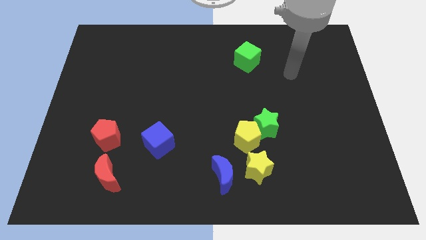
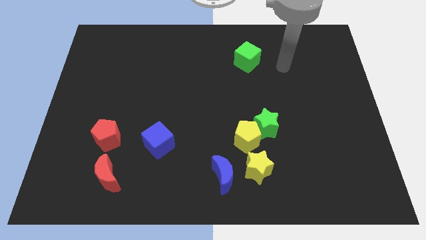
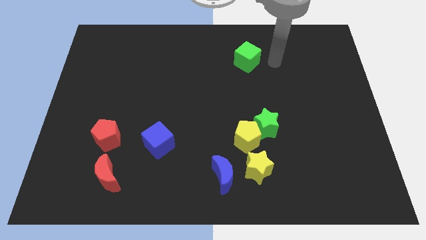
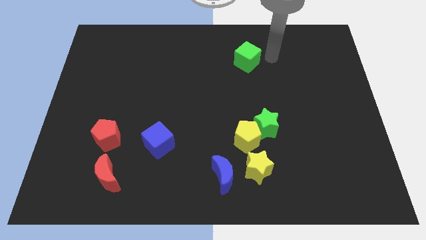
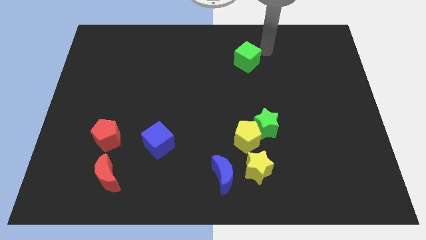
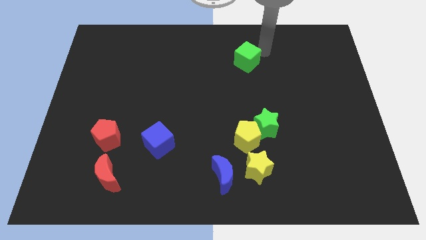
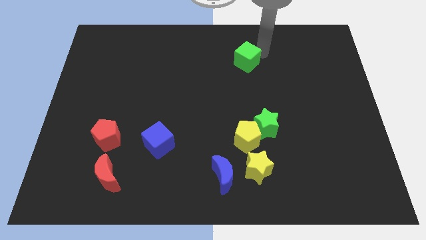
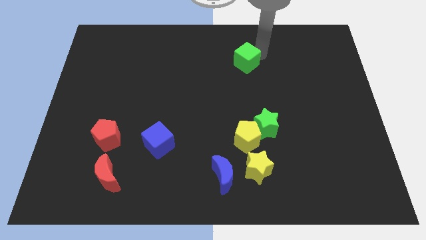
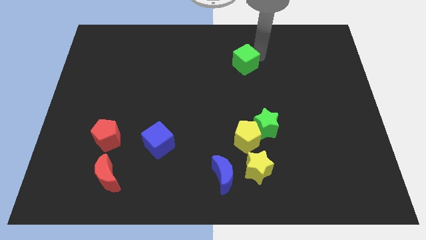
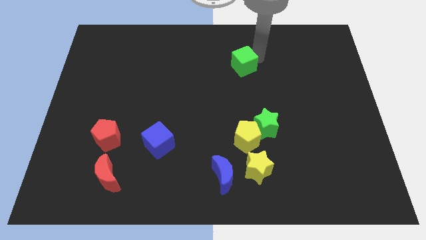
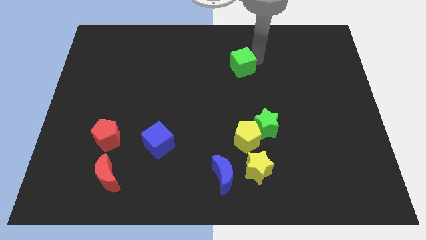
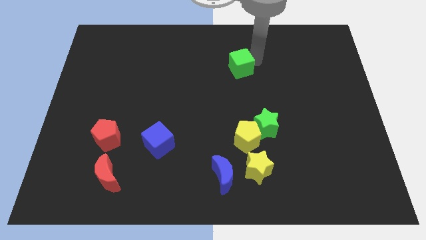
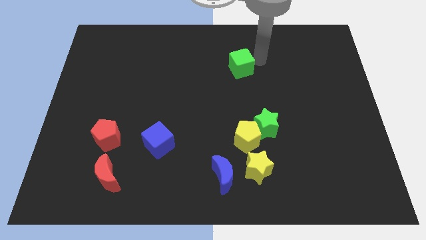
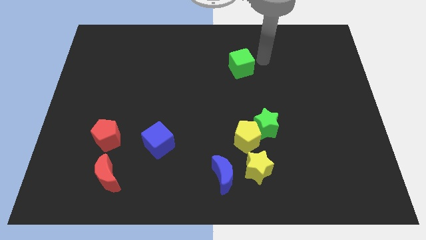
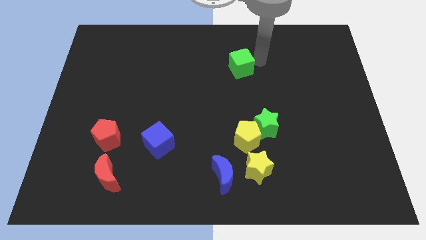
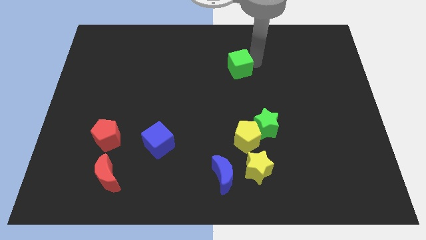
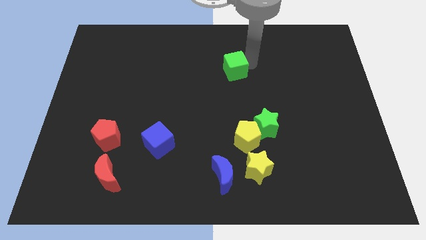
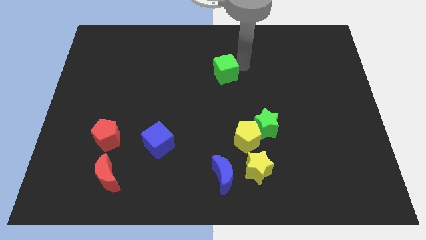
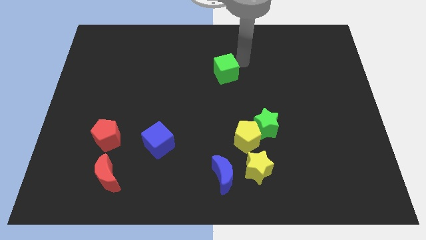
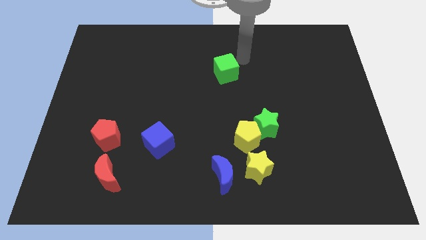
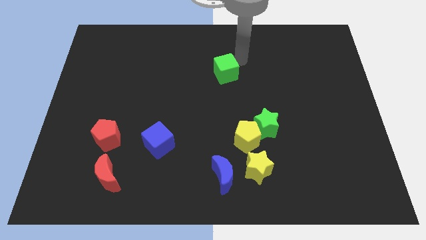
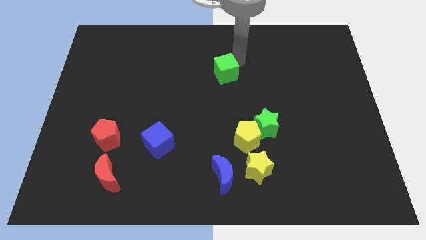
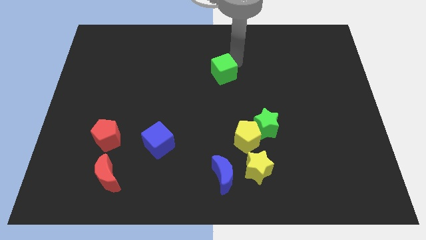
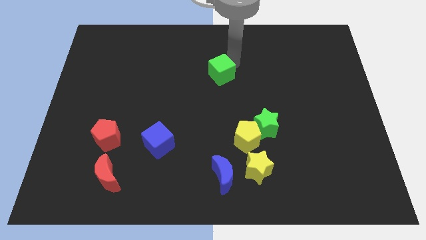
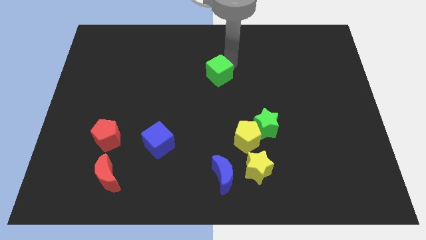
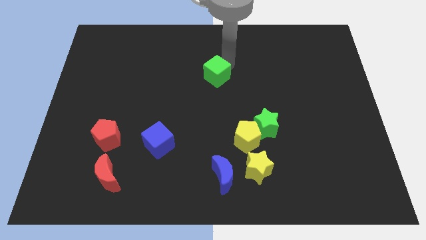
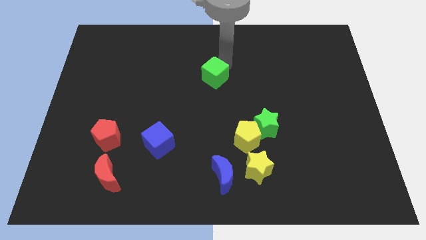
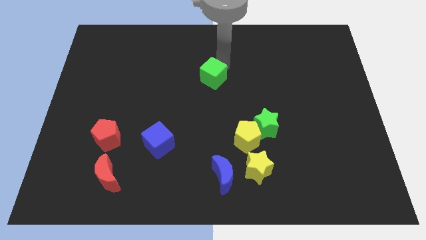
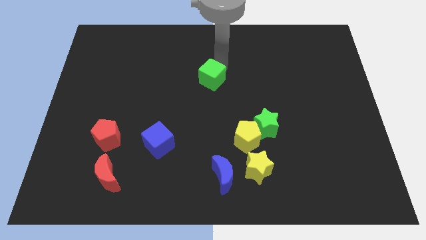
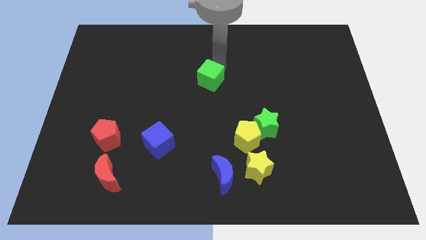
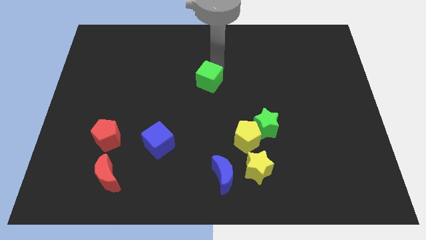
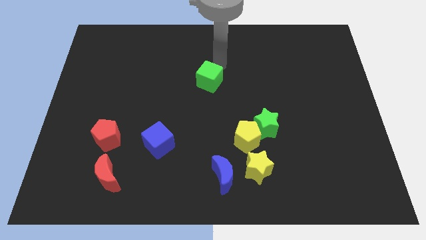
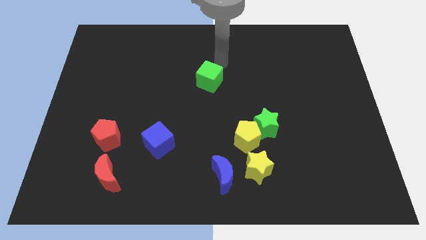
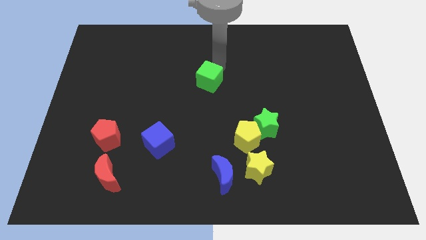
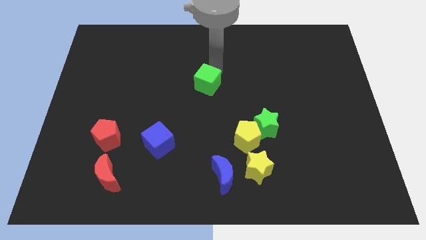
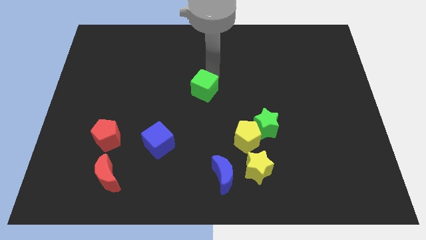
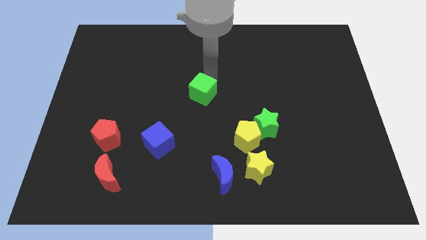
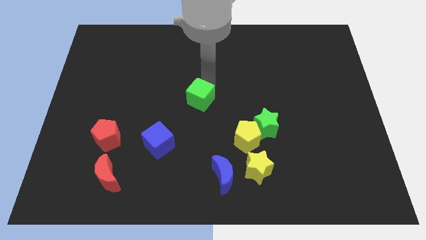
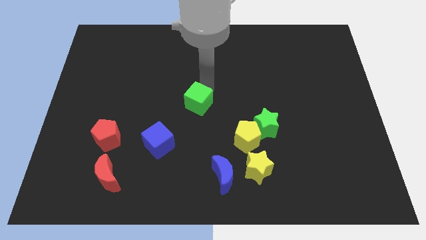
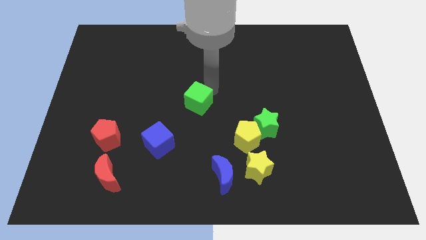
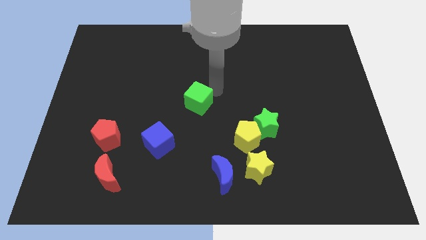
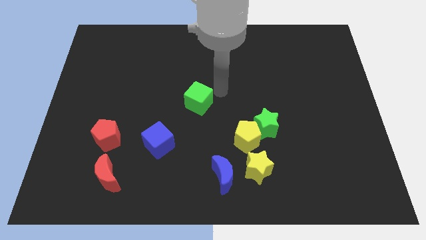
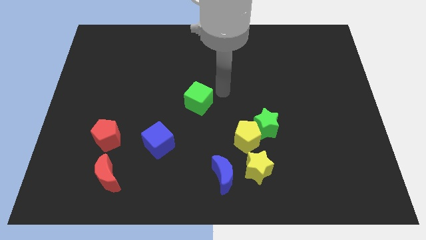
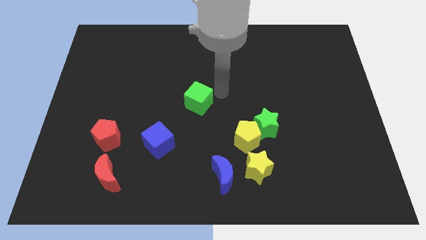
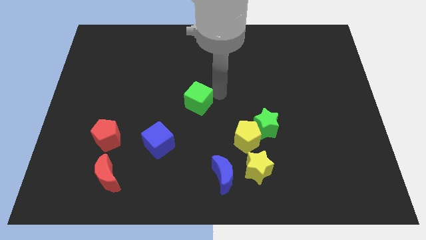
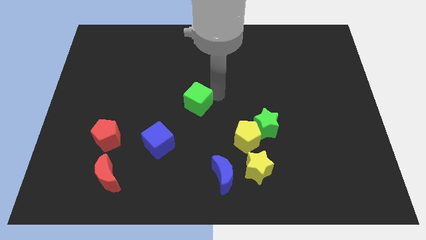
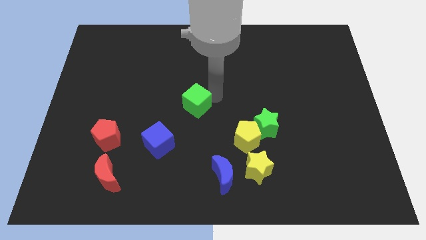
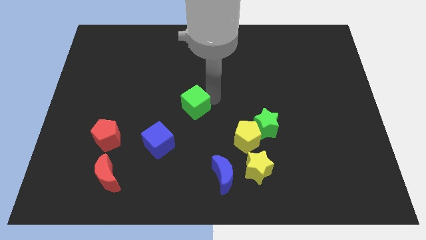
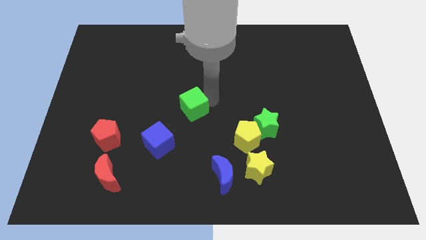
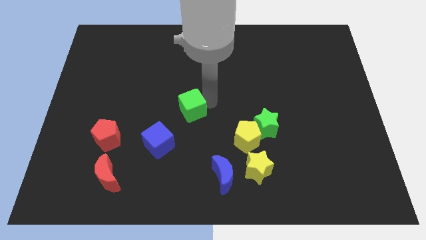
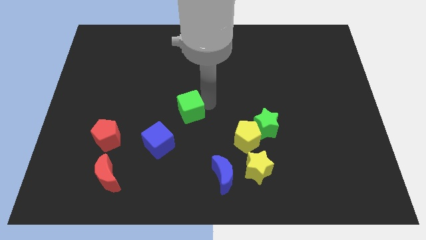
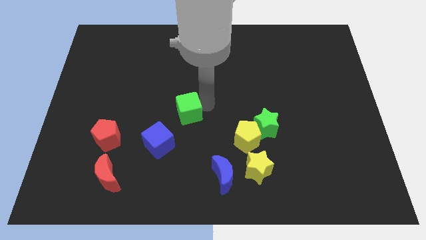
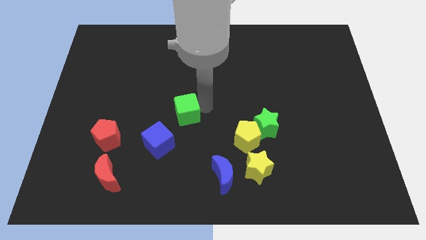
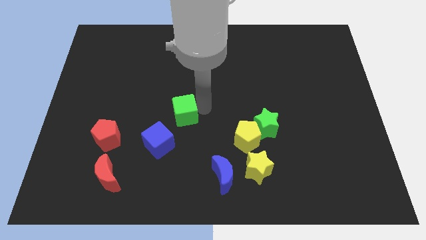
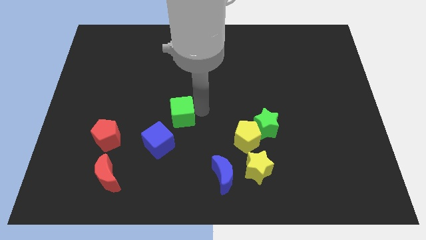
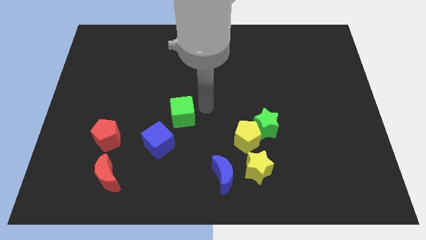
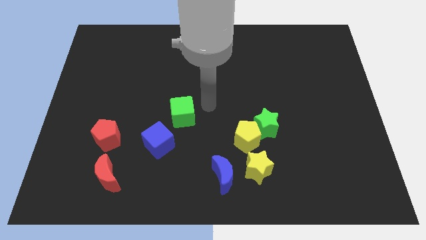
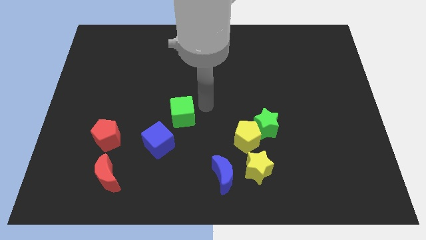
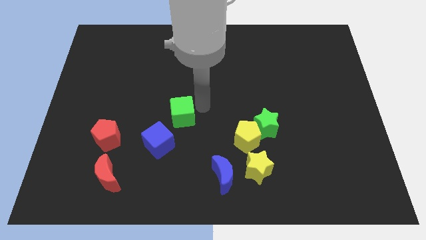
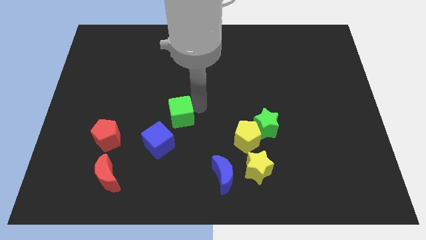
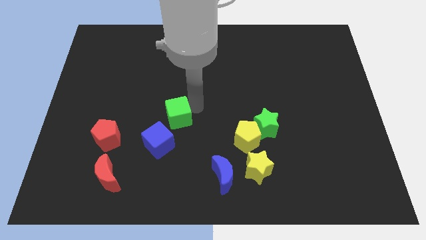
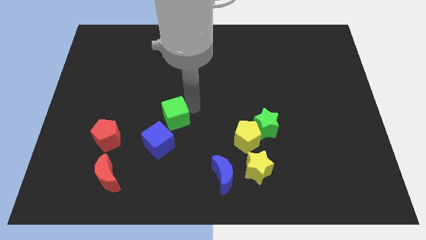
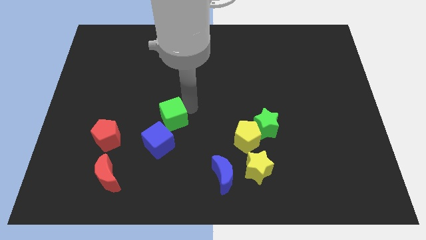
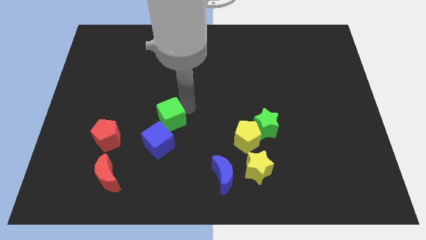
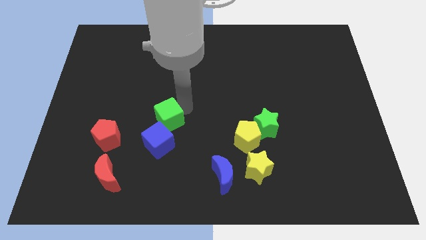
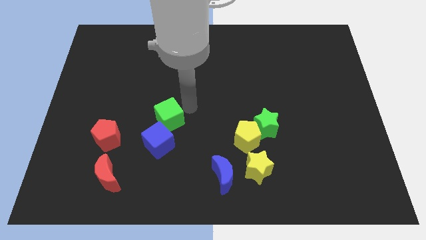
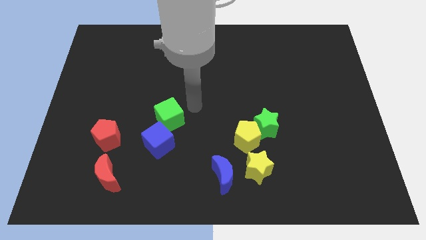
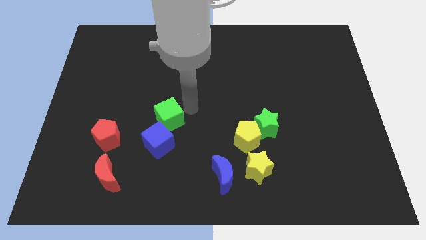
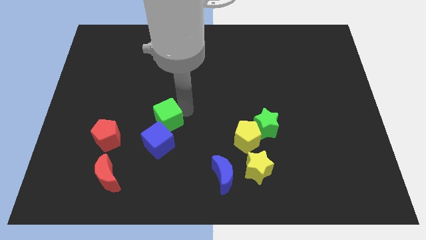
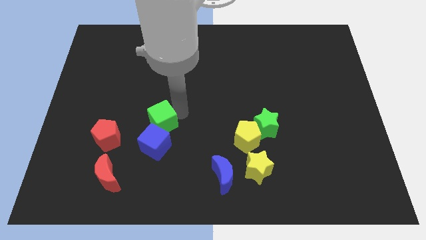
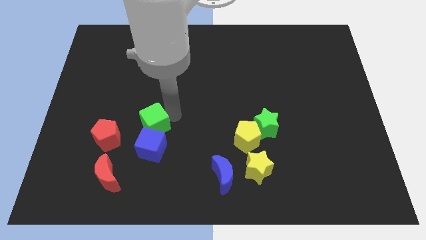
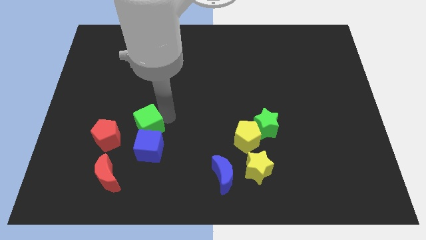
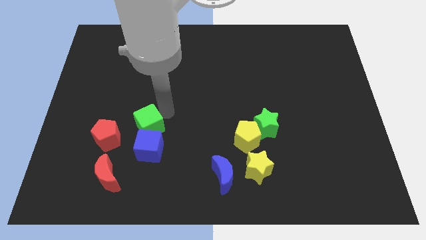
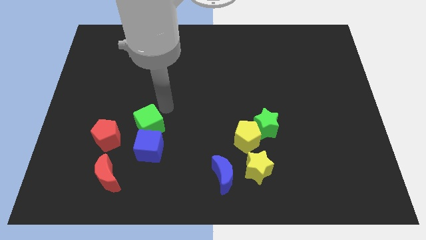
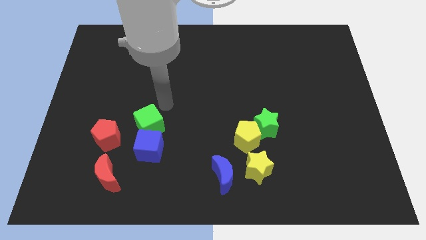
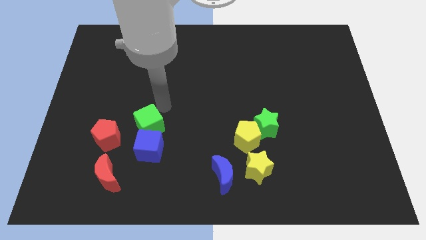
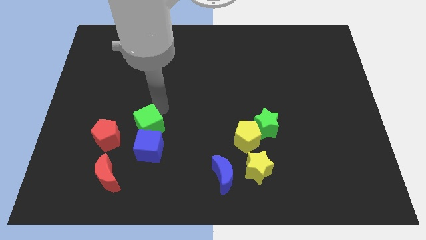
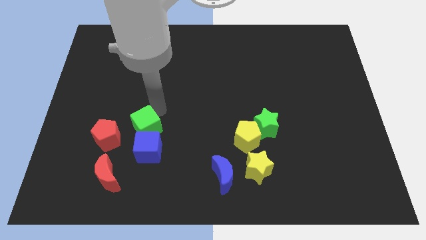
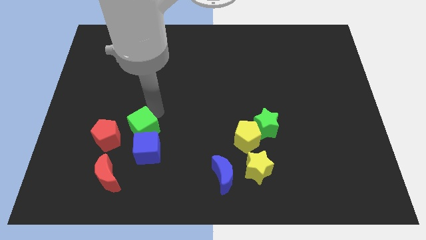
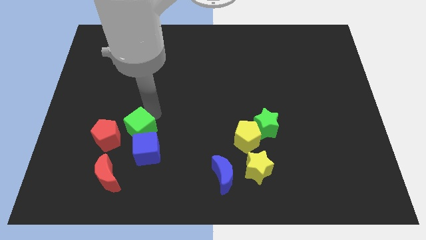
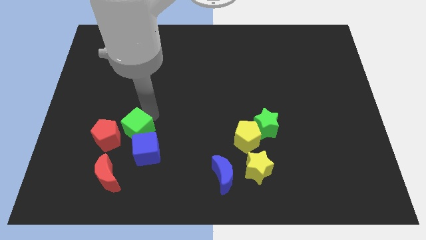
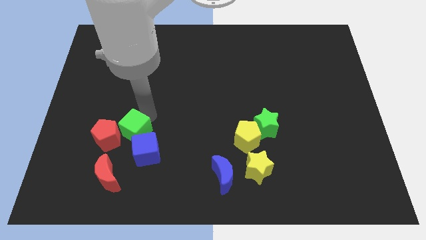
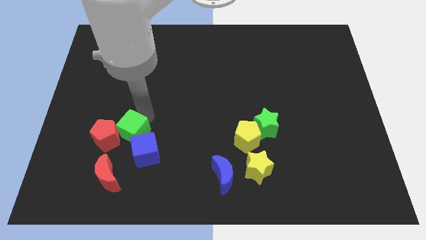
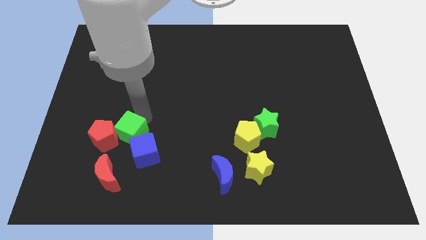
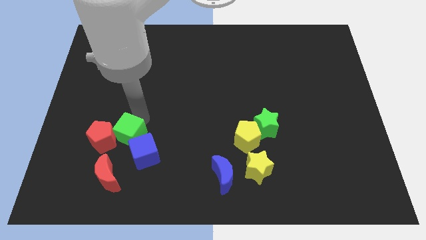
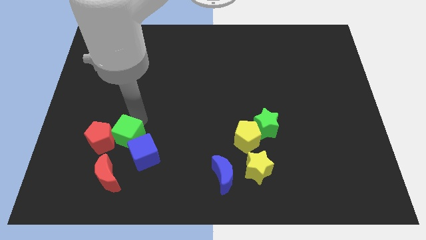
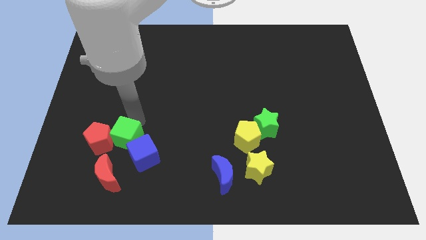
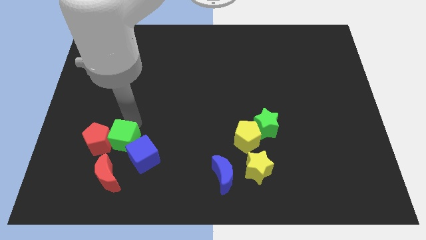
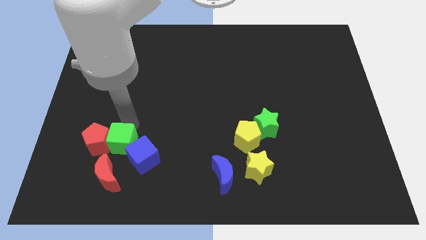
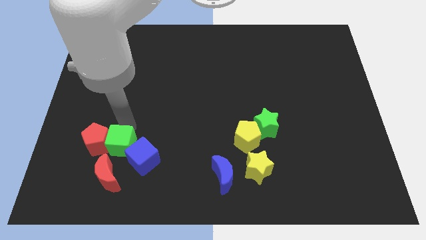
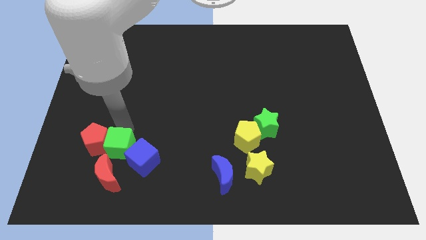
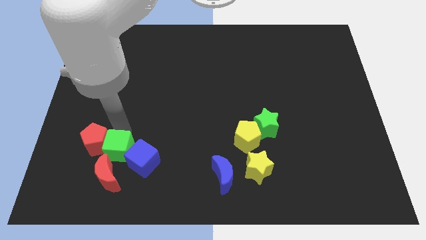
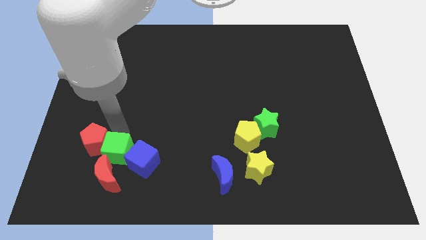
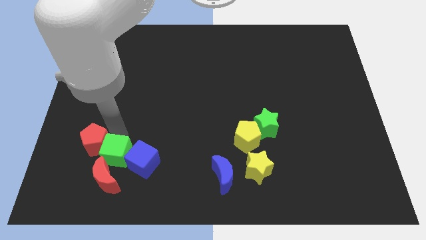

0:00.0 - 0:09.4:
move the green cube close to the red moon
